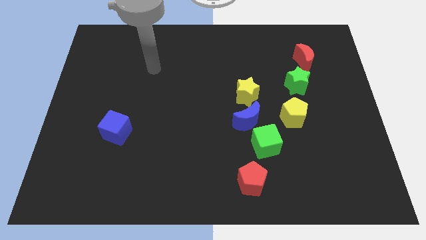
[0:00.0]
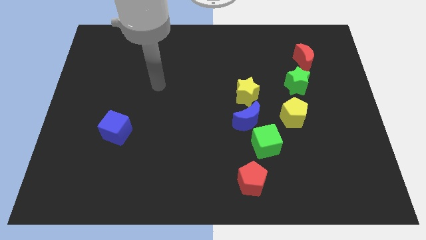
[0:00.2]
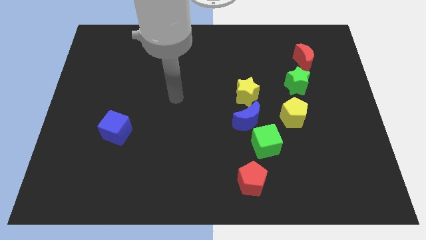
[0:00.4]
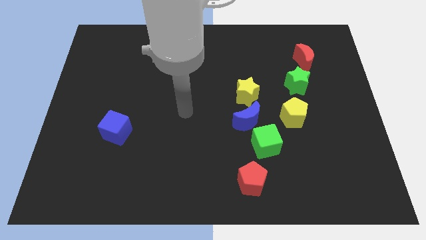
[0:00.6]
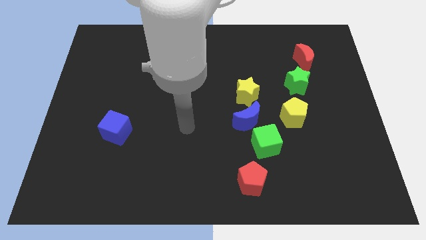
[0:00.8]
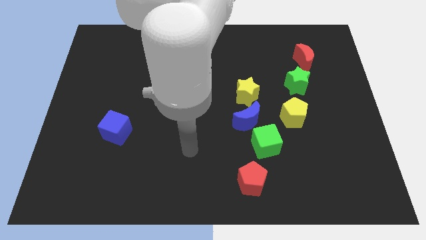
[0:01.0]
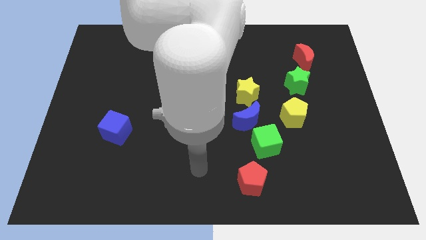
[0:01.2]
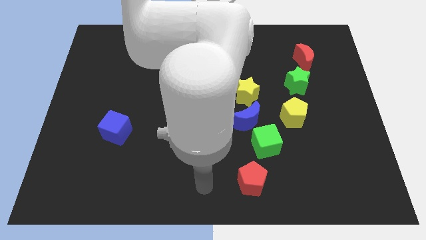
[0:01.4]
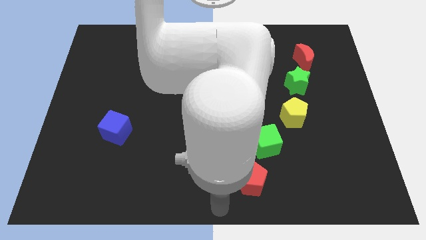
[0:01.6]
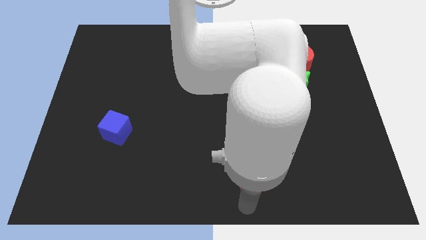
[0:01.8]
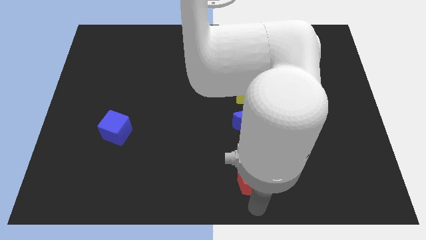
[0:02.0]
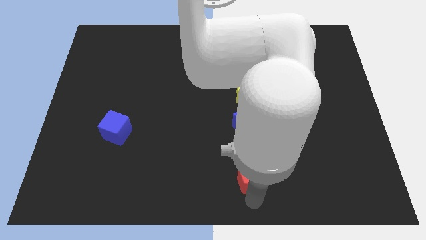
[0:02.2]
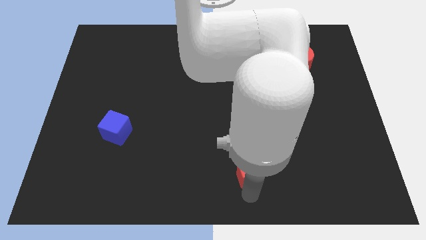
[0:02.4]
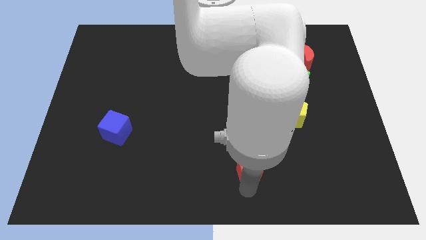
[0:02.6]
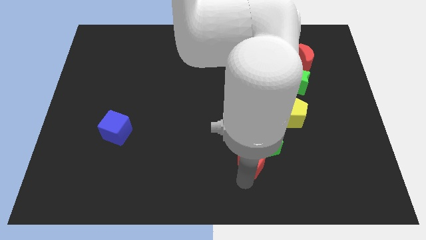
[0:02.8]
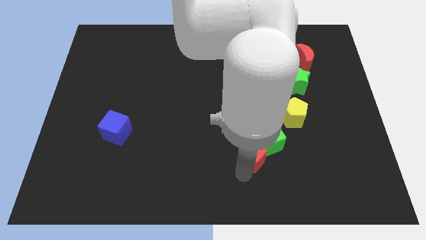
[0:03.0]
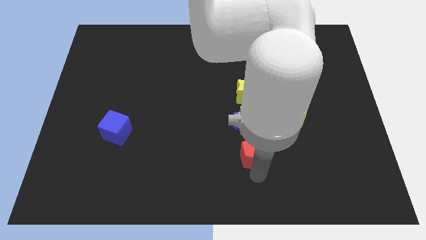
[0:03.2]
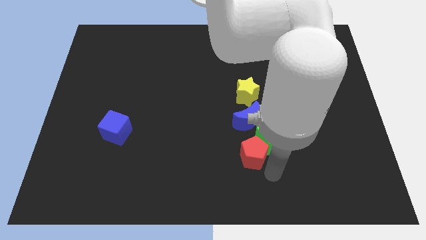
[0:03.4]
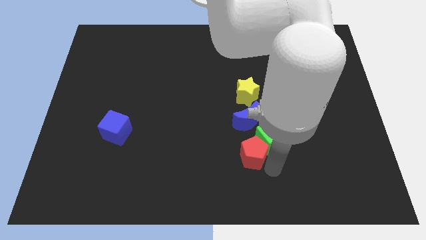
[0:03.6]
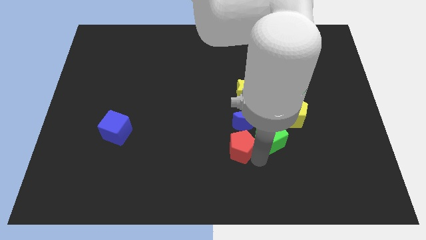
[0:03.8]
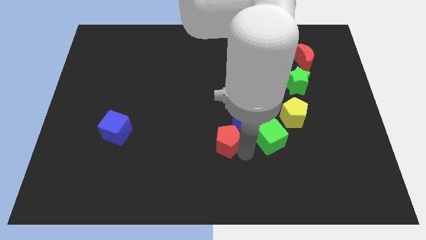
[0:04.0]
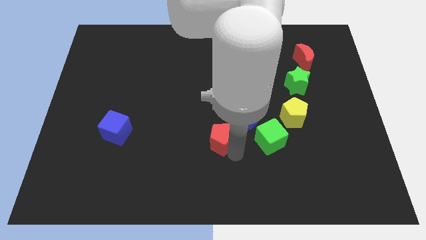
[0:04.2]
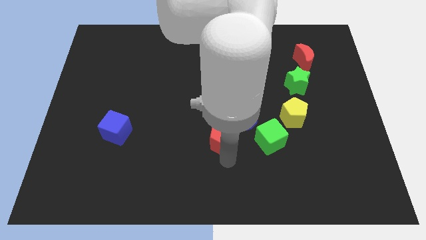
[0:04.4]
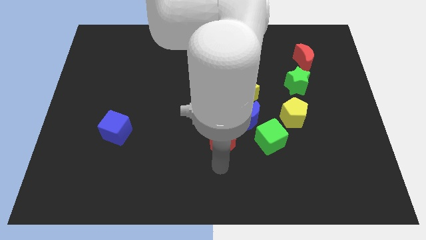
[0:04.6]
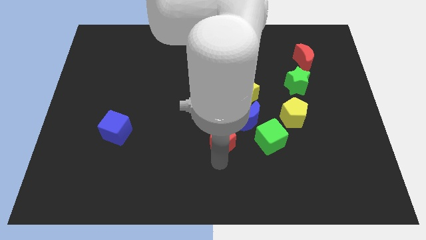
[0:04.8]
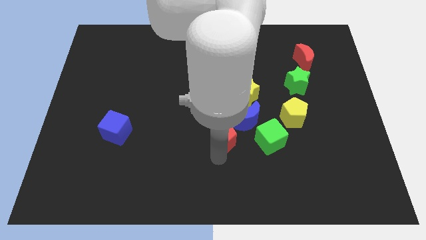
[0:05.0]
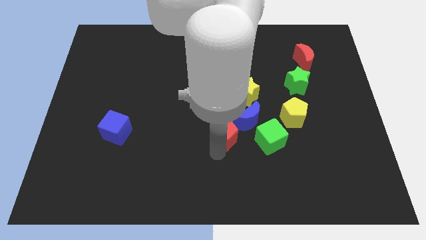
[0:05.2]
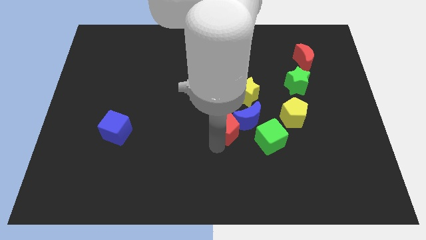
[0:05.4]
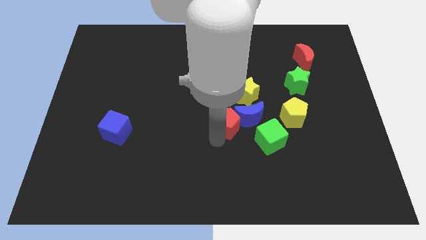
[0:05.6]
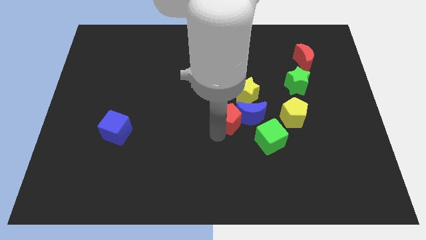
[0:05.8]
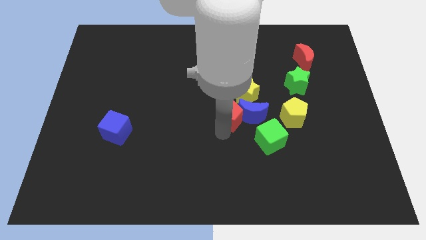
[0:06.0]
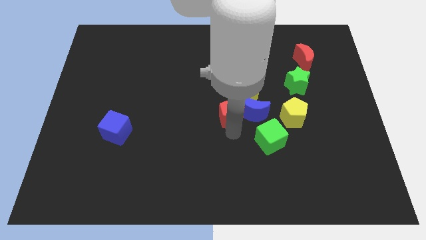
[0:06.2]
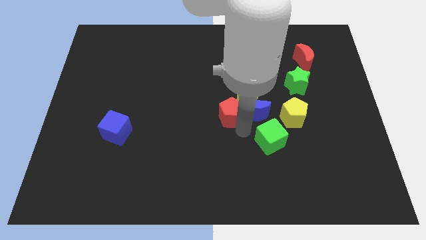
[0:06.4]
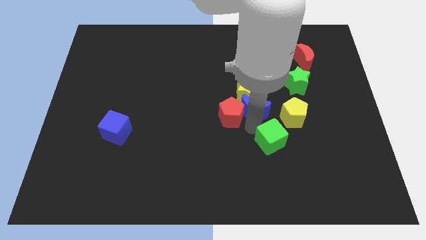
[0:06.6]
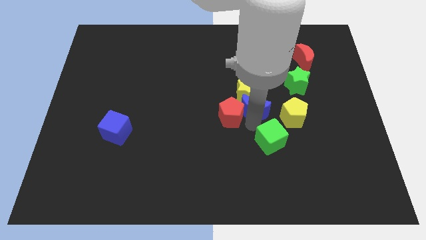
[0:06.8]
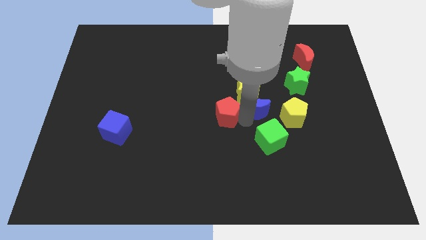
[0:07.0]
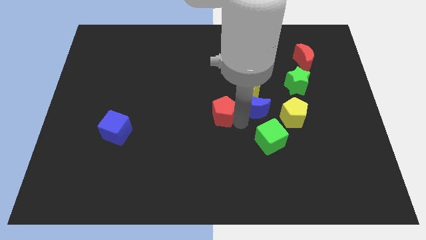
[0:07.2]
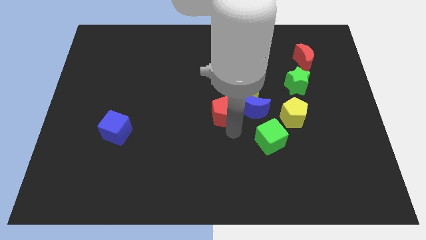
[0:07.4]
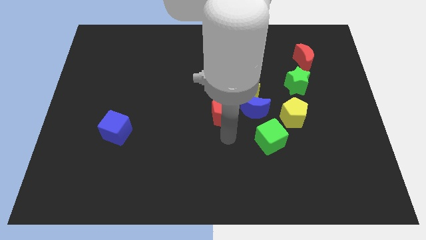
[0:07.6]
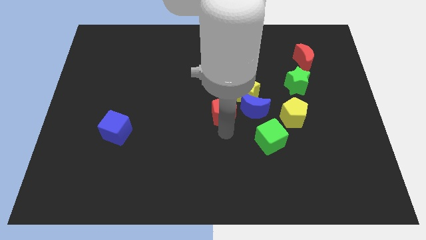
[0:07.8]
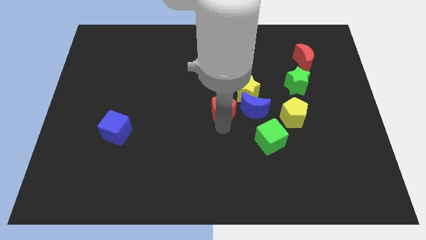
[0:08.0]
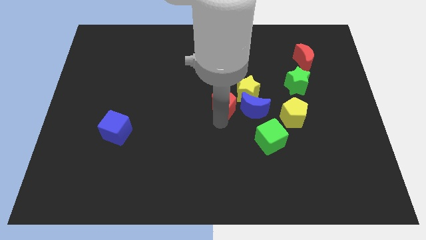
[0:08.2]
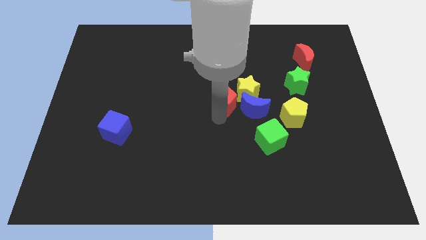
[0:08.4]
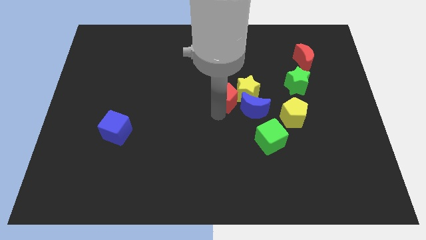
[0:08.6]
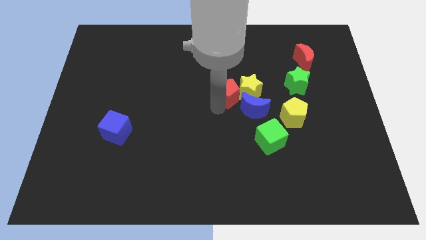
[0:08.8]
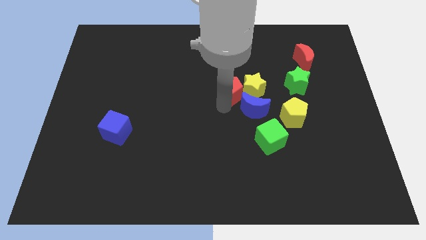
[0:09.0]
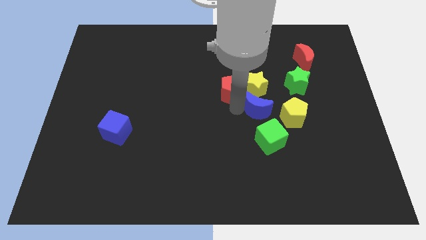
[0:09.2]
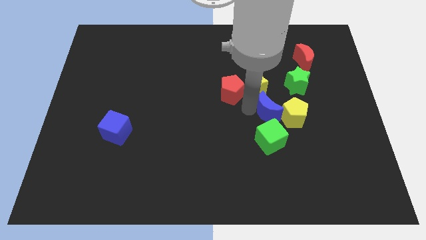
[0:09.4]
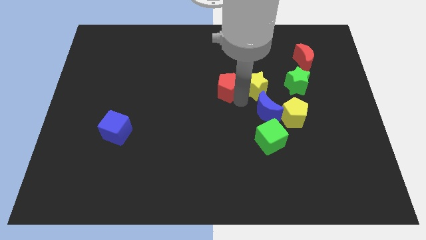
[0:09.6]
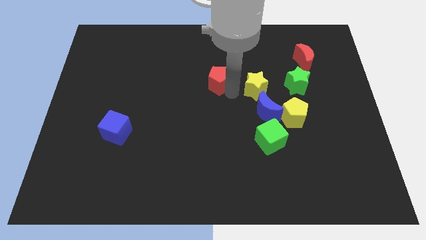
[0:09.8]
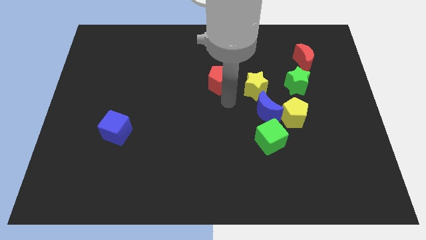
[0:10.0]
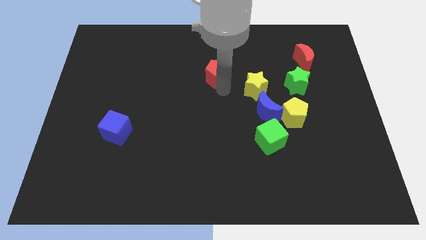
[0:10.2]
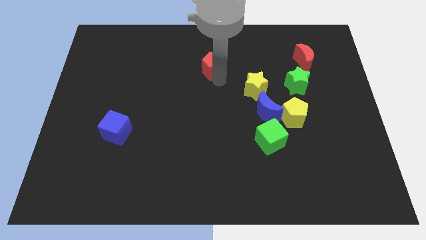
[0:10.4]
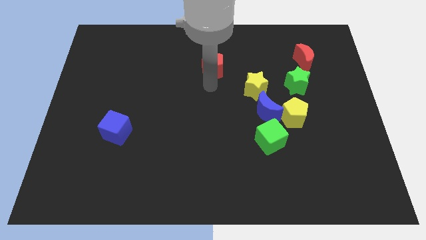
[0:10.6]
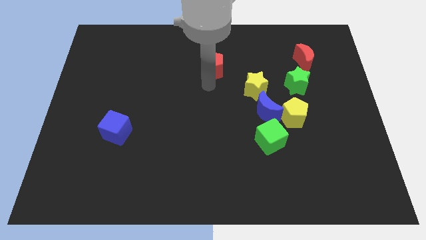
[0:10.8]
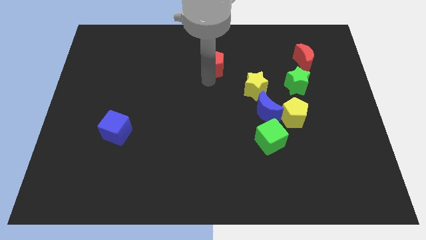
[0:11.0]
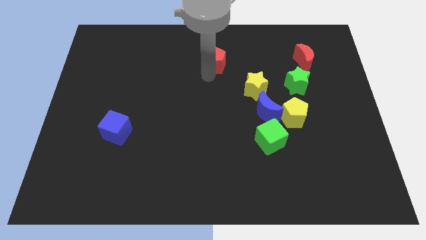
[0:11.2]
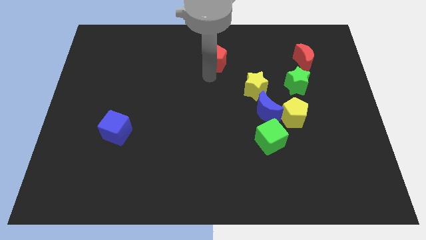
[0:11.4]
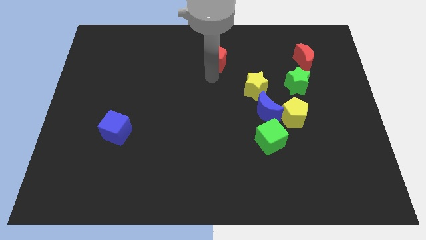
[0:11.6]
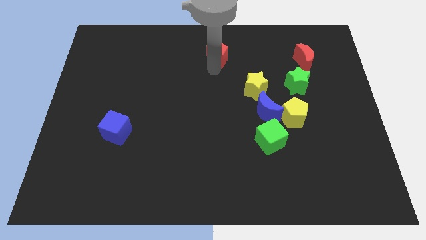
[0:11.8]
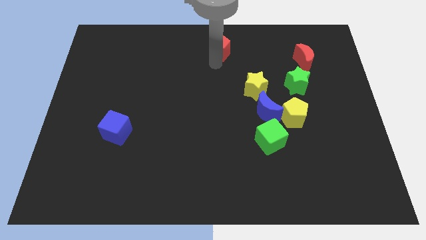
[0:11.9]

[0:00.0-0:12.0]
slide the red pentagon to the towards your base
